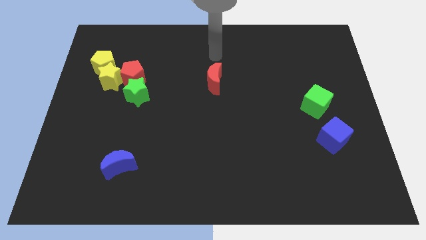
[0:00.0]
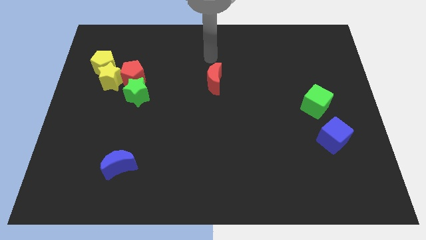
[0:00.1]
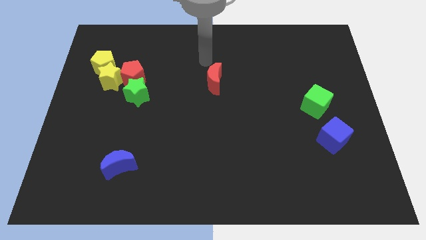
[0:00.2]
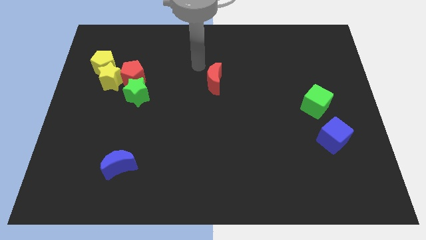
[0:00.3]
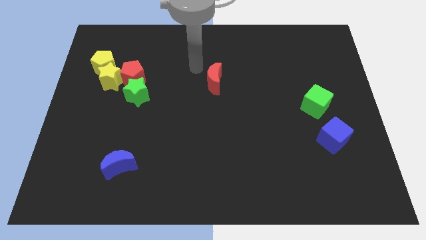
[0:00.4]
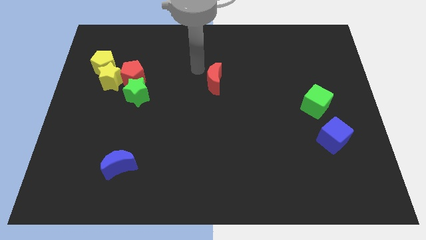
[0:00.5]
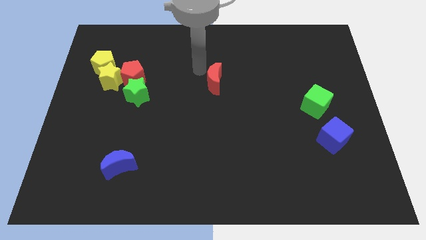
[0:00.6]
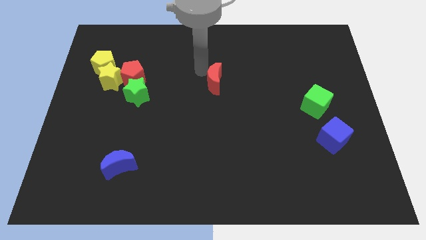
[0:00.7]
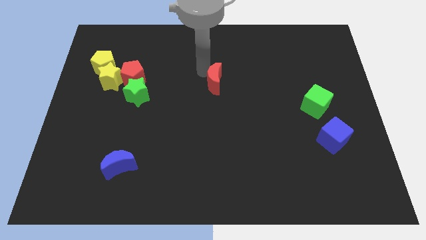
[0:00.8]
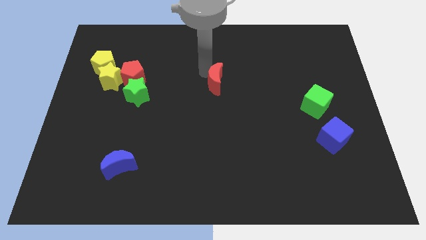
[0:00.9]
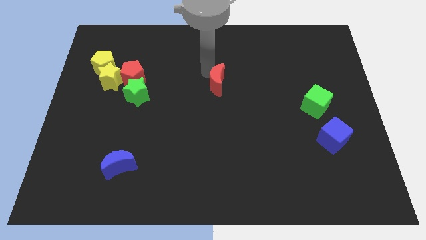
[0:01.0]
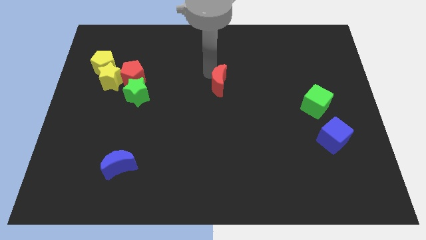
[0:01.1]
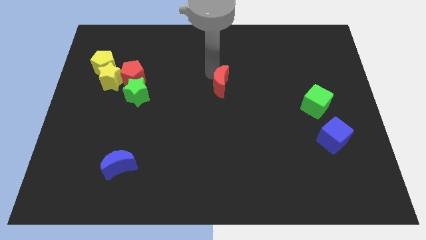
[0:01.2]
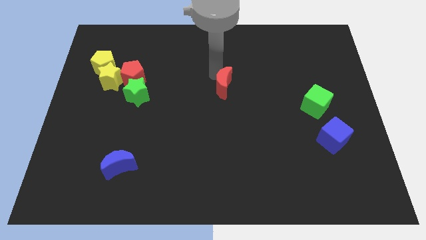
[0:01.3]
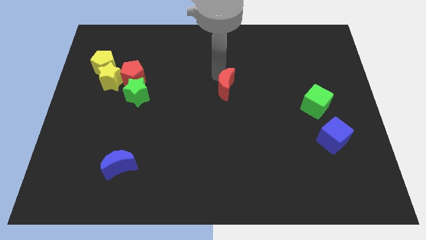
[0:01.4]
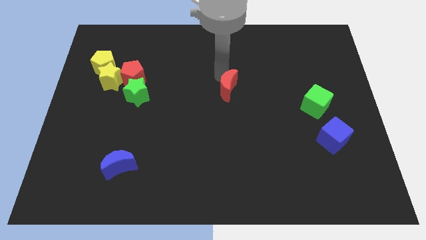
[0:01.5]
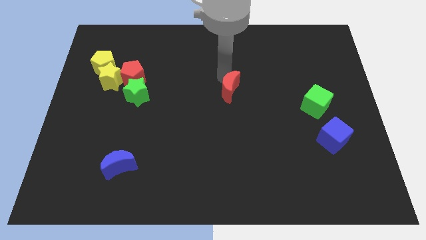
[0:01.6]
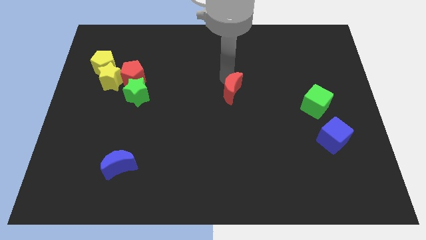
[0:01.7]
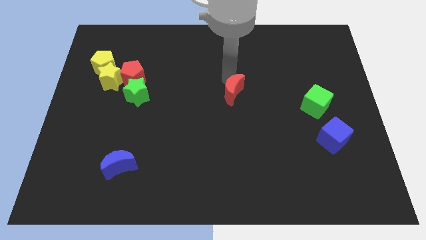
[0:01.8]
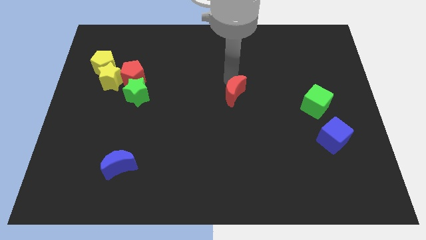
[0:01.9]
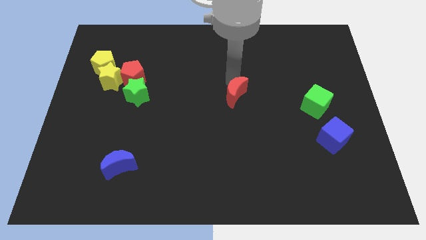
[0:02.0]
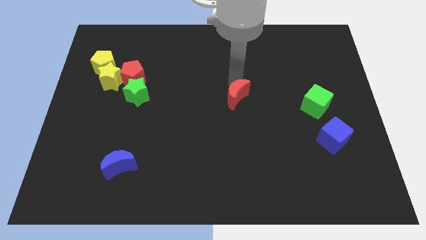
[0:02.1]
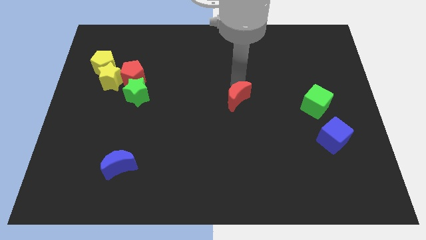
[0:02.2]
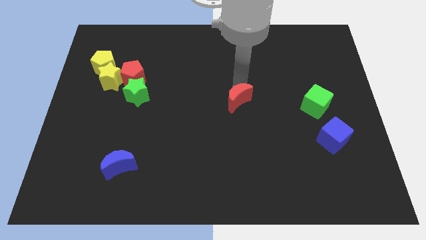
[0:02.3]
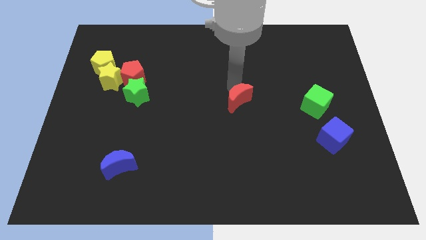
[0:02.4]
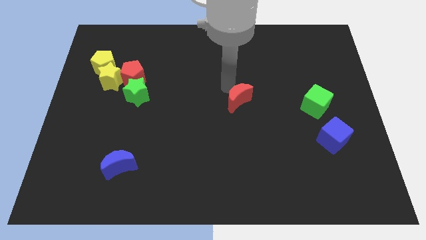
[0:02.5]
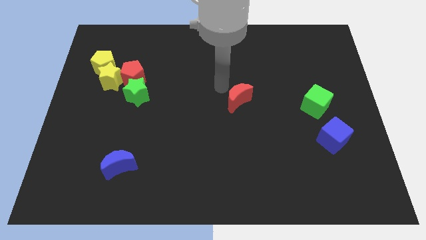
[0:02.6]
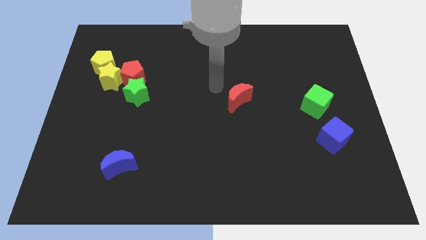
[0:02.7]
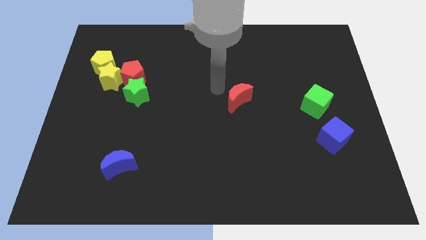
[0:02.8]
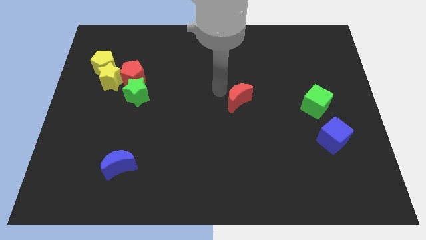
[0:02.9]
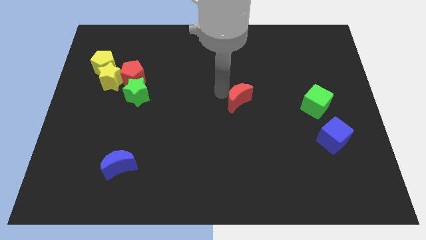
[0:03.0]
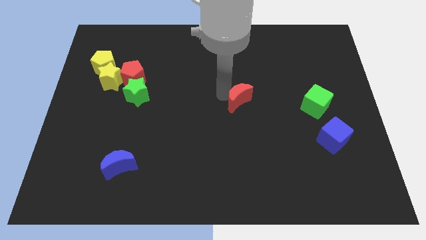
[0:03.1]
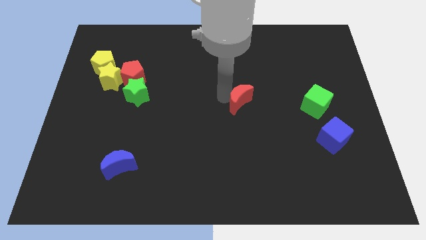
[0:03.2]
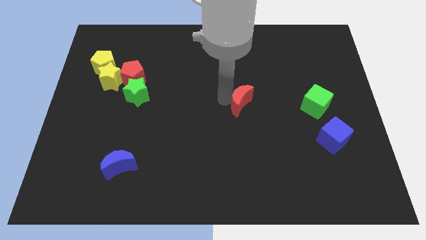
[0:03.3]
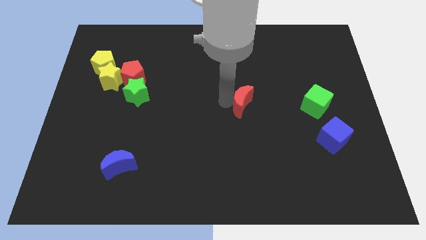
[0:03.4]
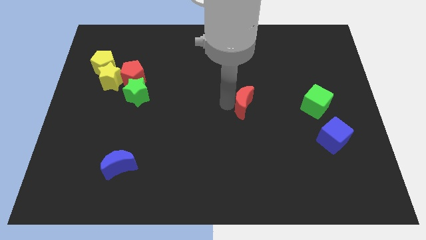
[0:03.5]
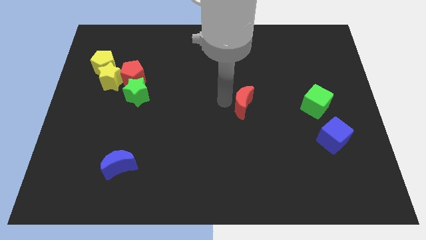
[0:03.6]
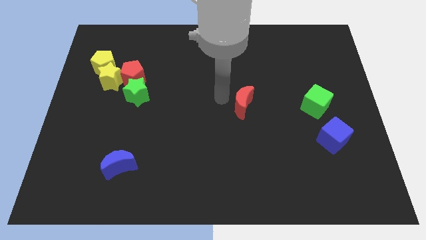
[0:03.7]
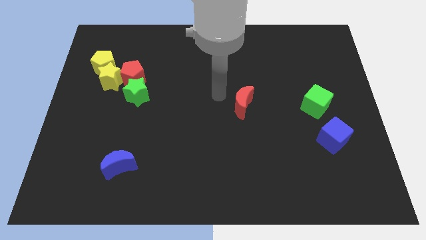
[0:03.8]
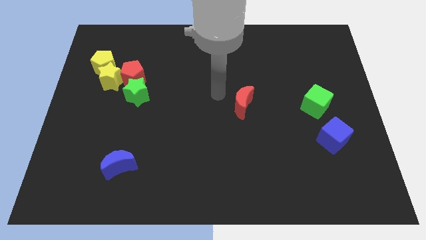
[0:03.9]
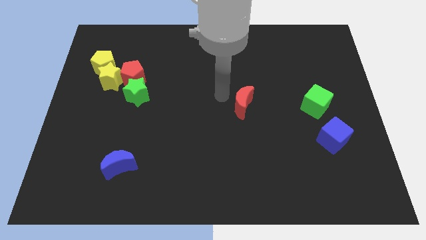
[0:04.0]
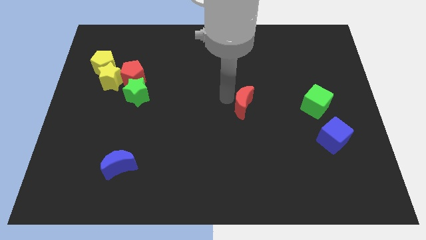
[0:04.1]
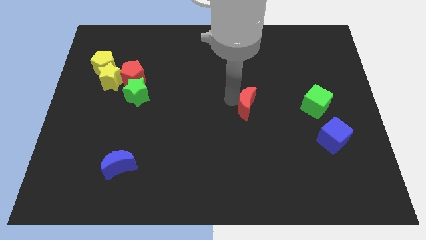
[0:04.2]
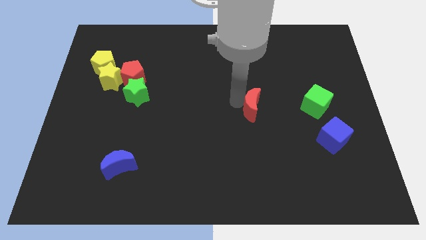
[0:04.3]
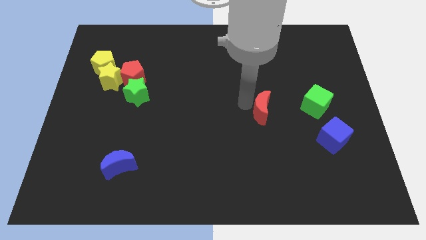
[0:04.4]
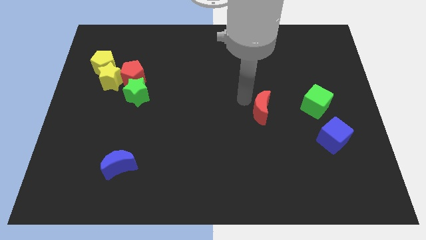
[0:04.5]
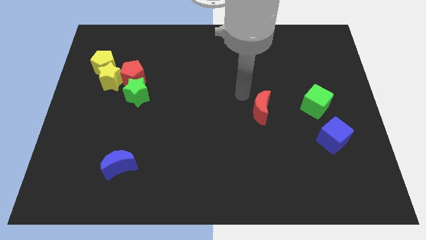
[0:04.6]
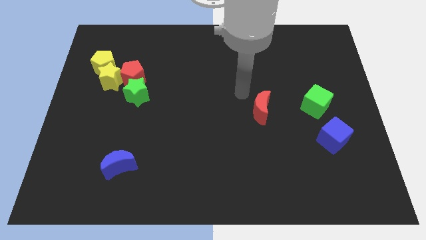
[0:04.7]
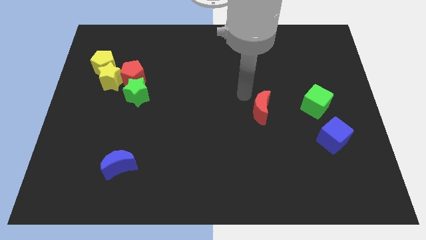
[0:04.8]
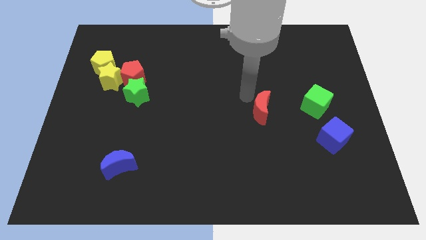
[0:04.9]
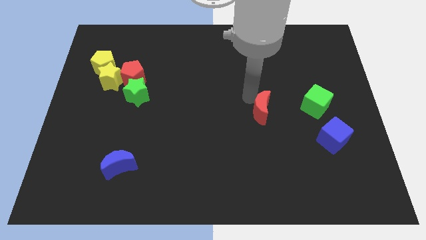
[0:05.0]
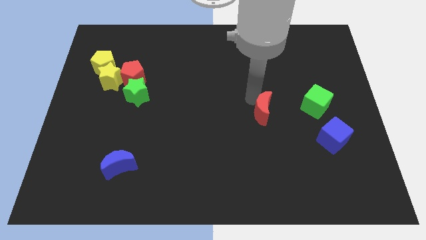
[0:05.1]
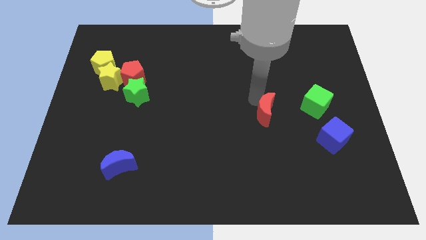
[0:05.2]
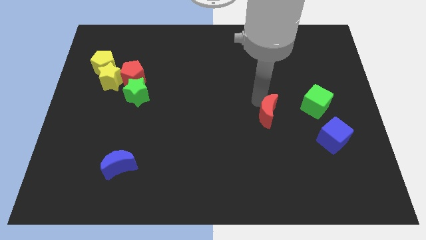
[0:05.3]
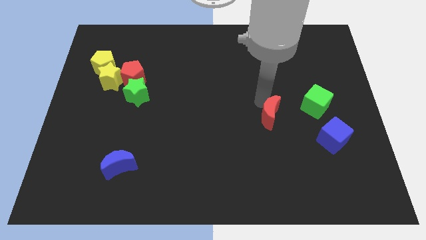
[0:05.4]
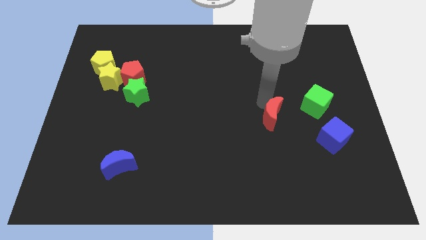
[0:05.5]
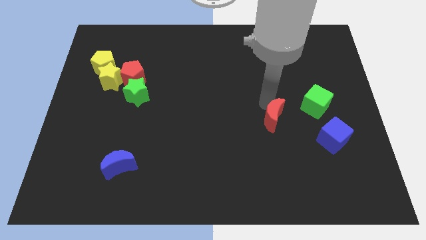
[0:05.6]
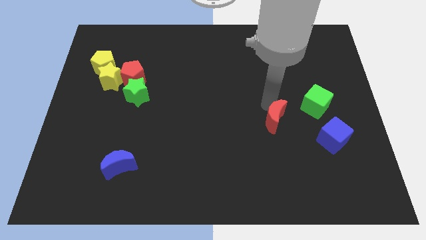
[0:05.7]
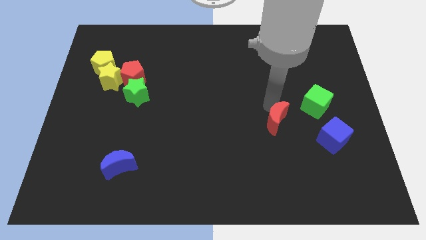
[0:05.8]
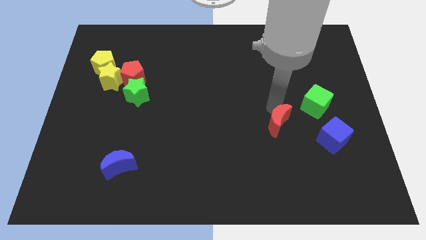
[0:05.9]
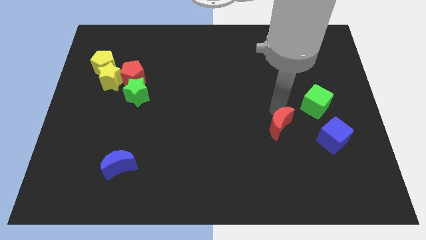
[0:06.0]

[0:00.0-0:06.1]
push the red moon downwards and right

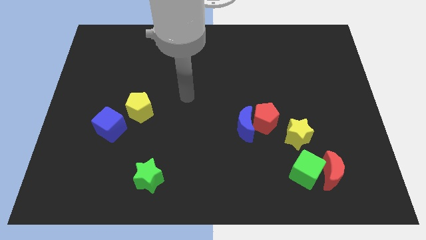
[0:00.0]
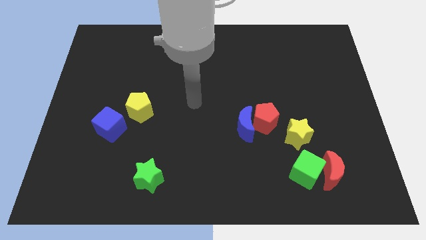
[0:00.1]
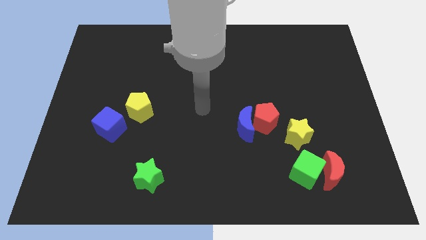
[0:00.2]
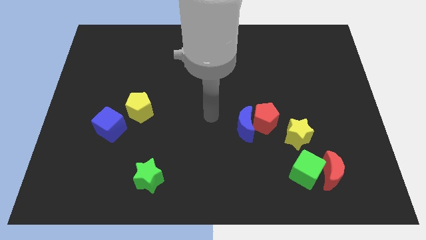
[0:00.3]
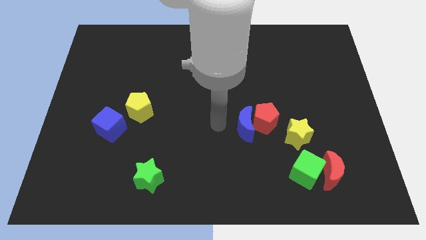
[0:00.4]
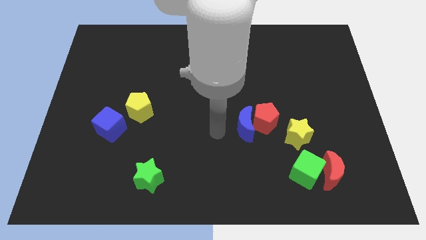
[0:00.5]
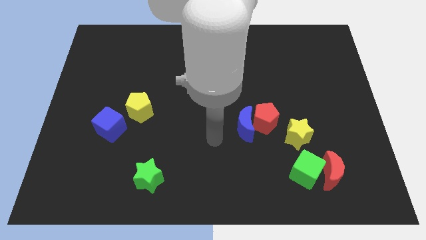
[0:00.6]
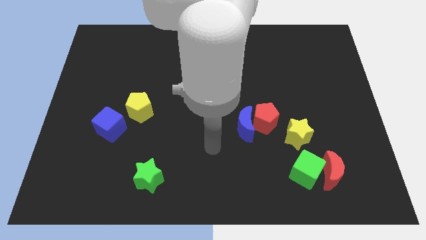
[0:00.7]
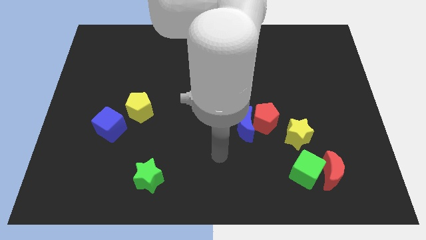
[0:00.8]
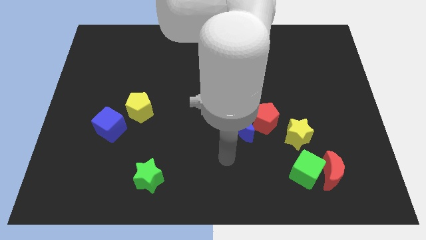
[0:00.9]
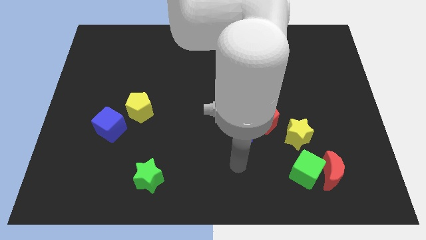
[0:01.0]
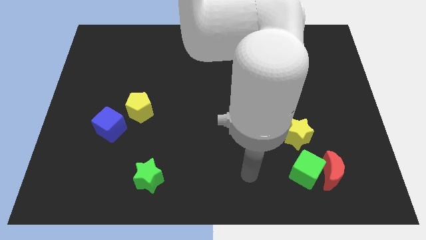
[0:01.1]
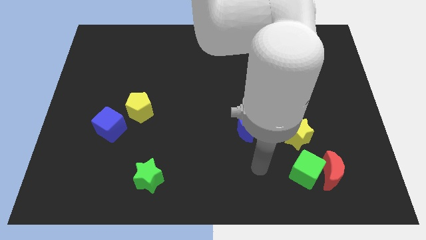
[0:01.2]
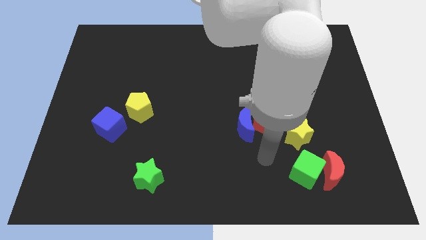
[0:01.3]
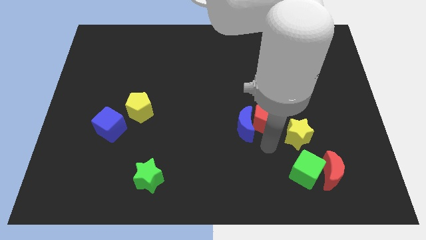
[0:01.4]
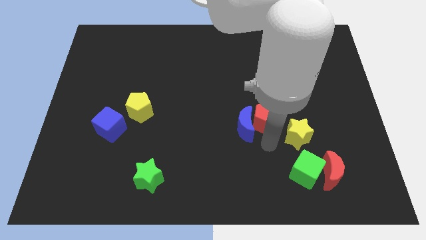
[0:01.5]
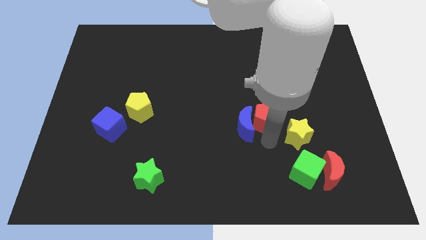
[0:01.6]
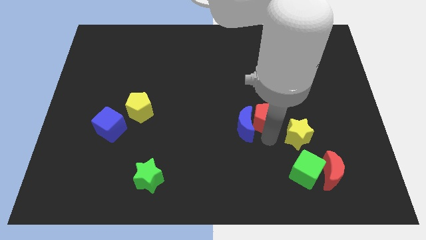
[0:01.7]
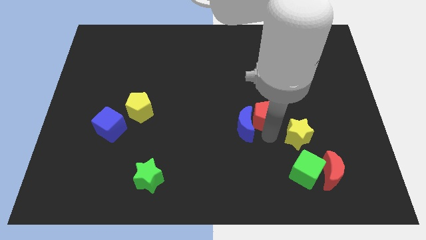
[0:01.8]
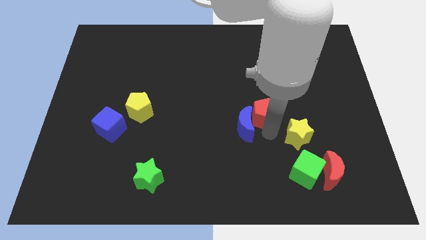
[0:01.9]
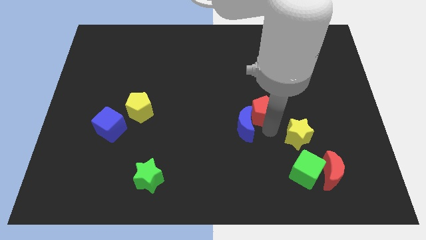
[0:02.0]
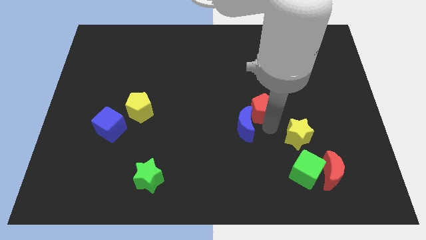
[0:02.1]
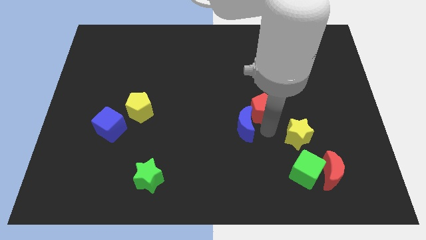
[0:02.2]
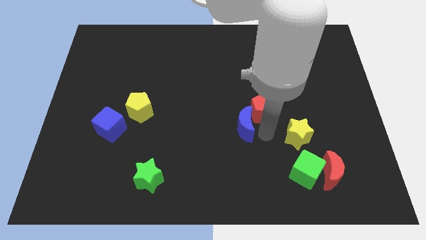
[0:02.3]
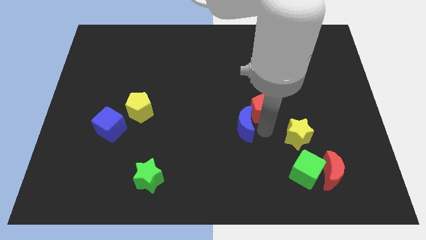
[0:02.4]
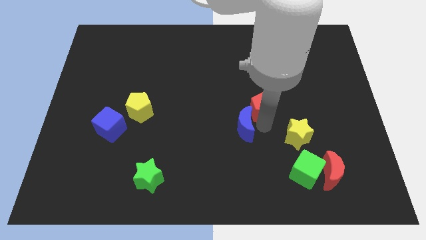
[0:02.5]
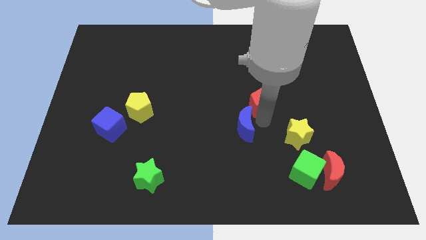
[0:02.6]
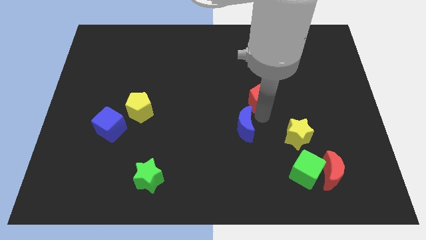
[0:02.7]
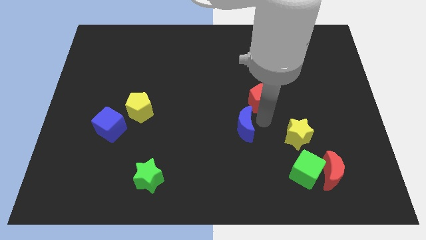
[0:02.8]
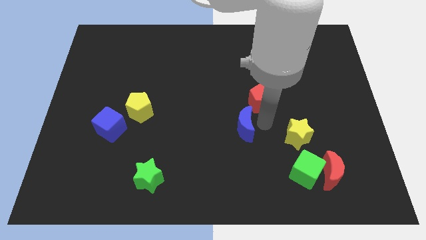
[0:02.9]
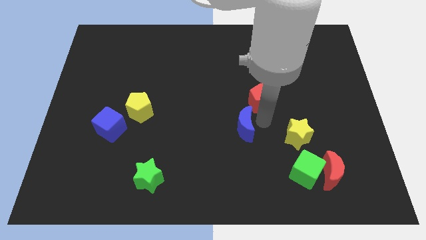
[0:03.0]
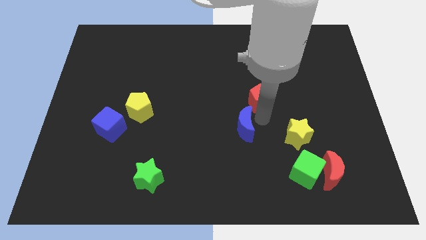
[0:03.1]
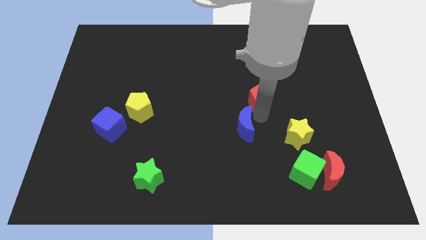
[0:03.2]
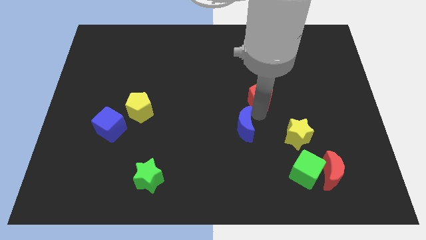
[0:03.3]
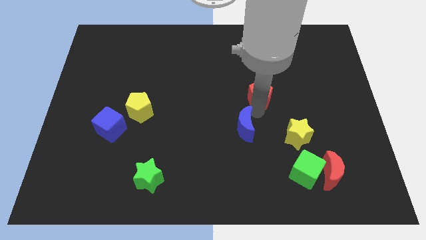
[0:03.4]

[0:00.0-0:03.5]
slightly slide the red pentagon upwards
